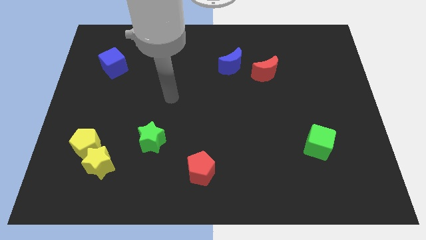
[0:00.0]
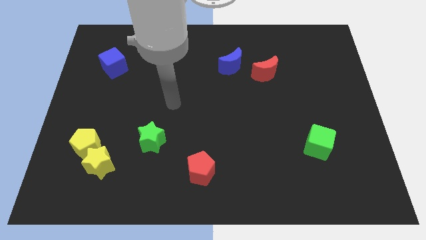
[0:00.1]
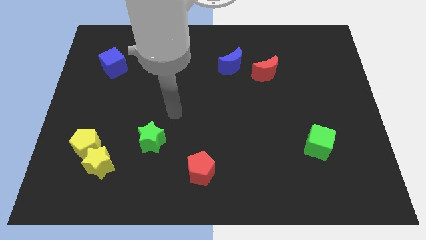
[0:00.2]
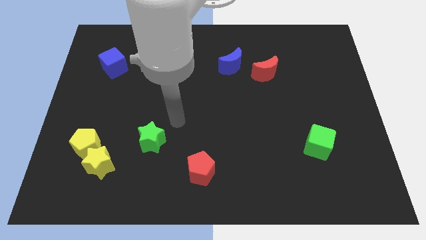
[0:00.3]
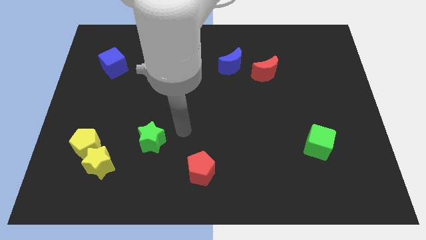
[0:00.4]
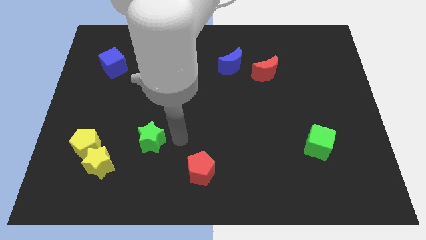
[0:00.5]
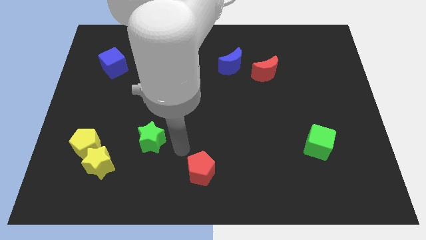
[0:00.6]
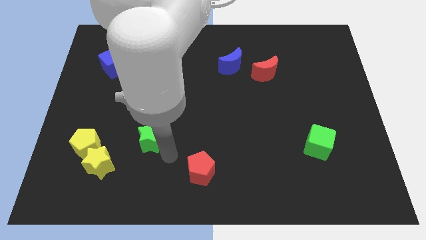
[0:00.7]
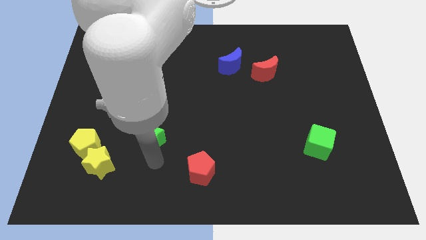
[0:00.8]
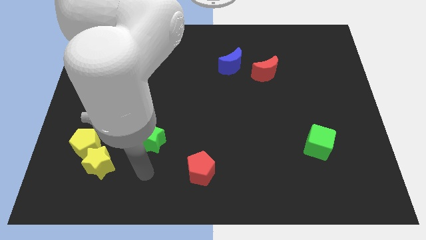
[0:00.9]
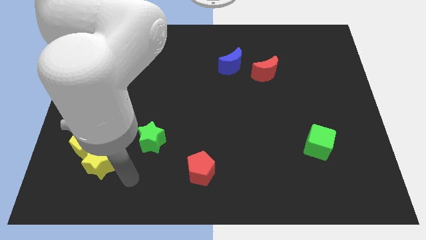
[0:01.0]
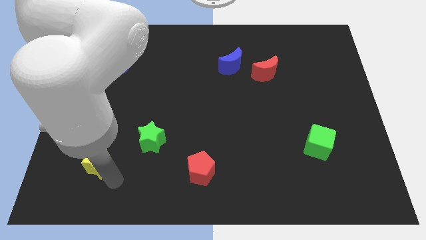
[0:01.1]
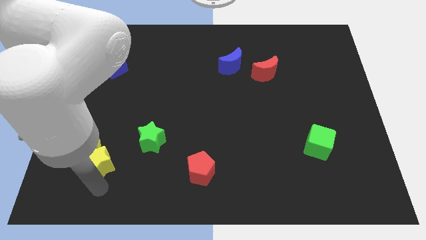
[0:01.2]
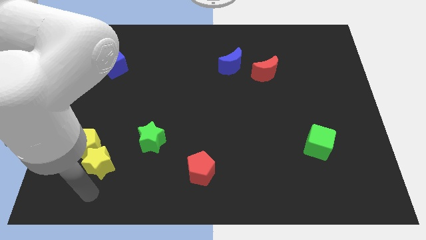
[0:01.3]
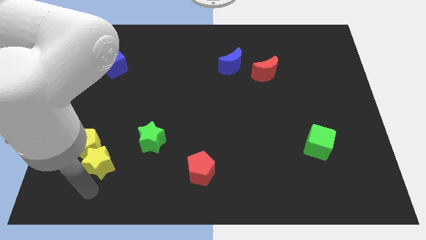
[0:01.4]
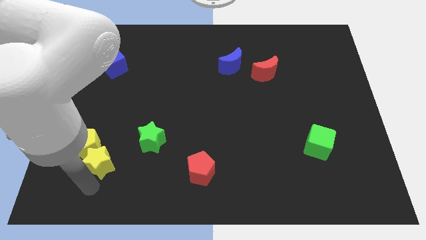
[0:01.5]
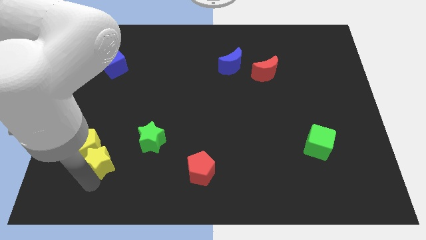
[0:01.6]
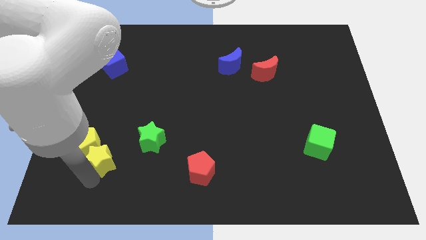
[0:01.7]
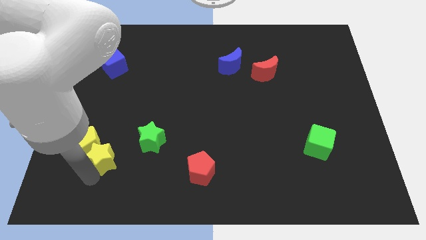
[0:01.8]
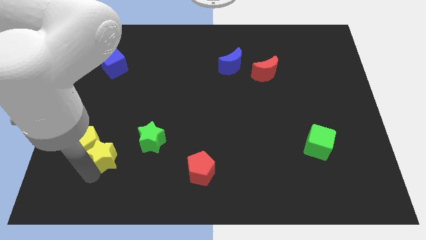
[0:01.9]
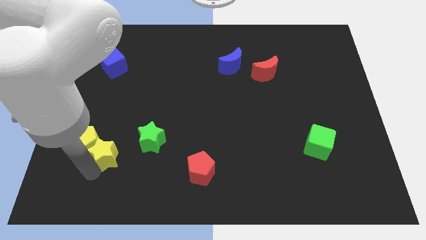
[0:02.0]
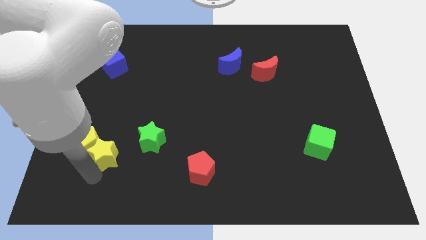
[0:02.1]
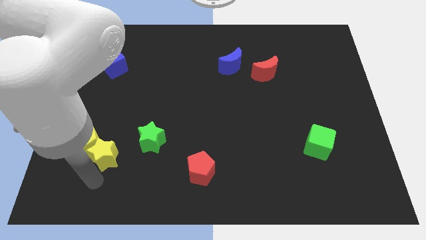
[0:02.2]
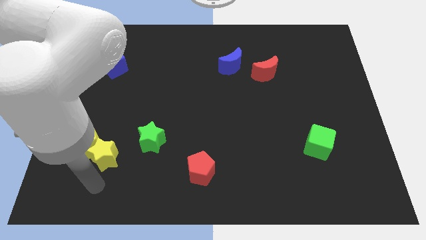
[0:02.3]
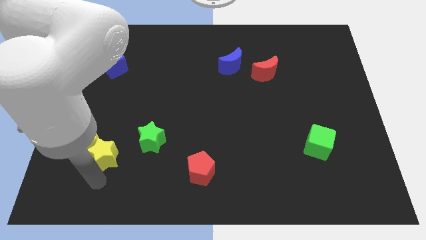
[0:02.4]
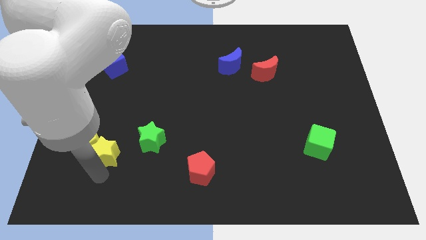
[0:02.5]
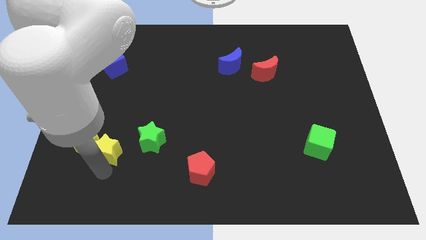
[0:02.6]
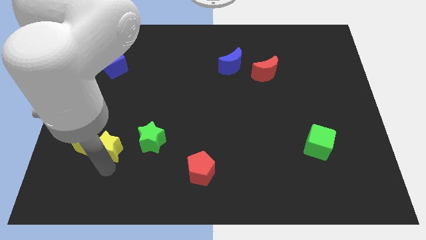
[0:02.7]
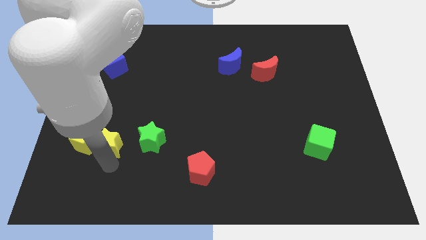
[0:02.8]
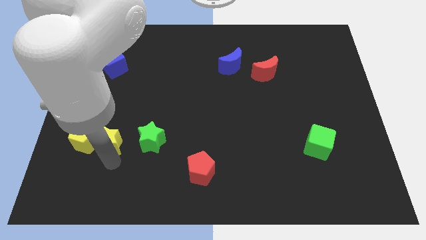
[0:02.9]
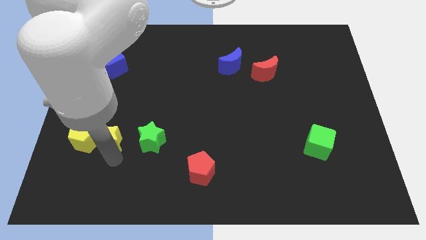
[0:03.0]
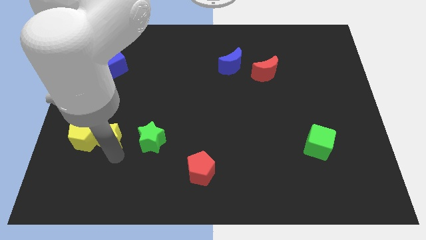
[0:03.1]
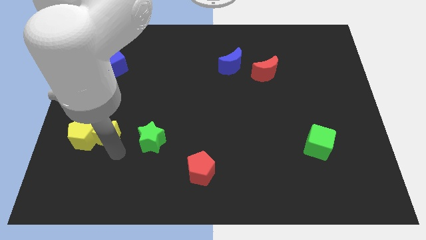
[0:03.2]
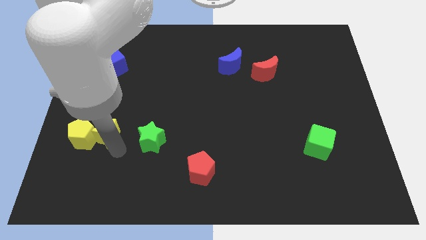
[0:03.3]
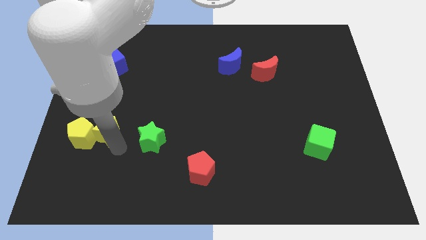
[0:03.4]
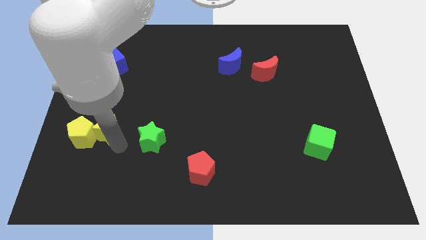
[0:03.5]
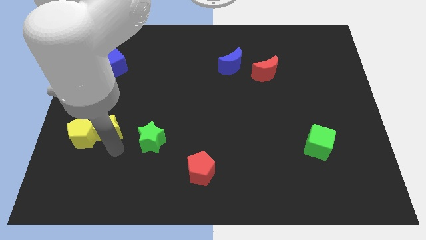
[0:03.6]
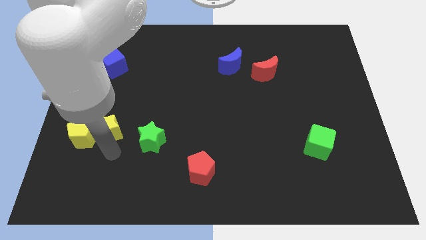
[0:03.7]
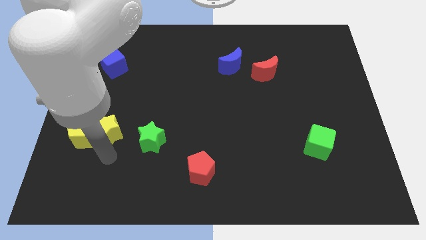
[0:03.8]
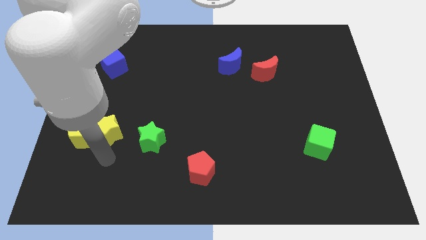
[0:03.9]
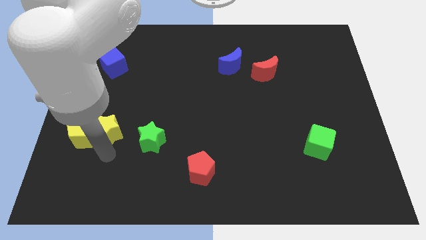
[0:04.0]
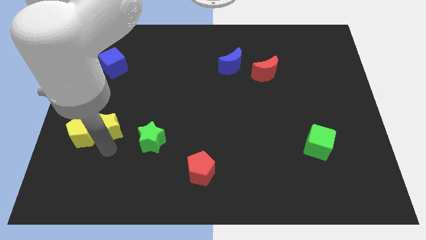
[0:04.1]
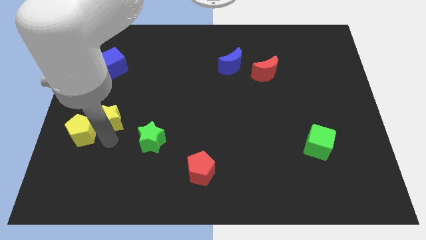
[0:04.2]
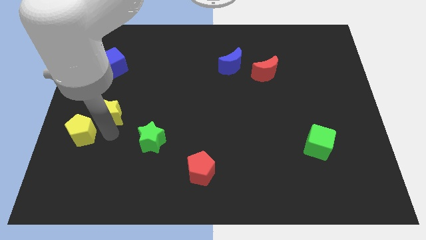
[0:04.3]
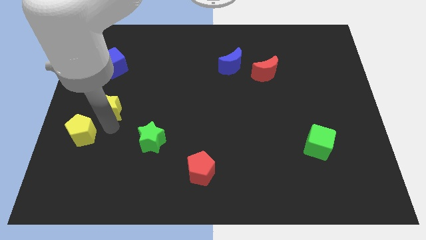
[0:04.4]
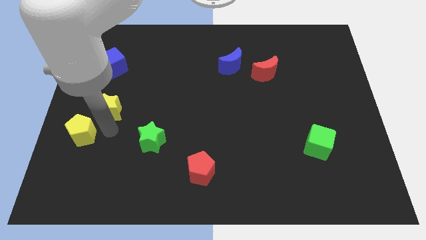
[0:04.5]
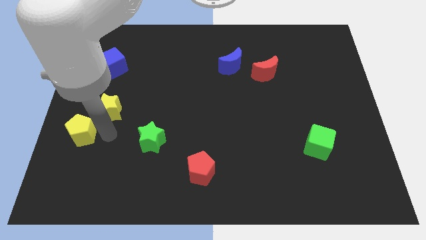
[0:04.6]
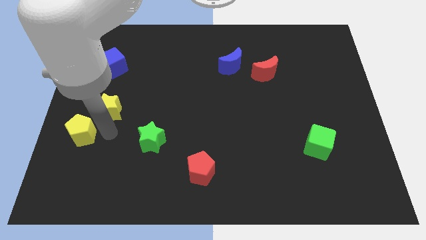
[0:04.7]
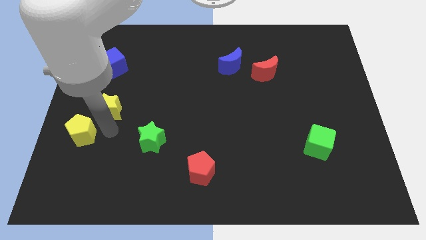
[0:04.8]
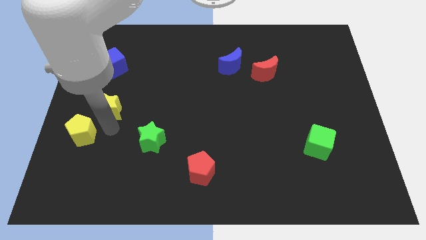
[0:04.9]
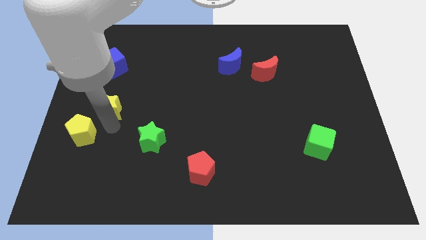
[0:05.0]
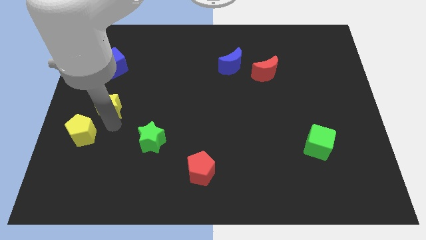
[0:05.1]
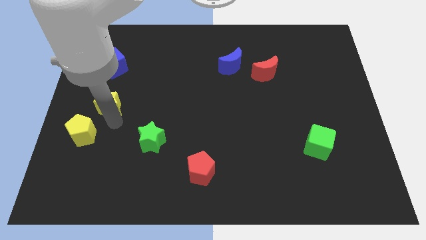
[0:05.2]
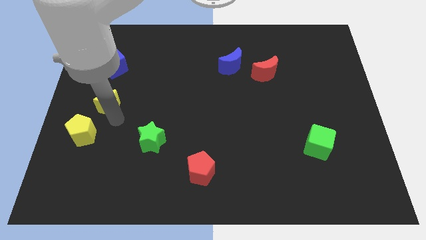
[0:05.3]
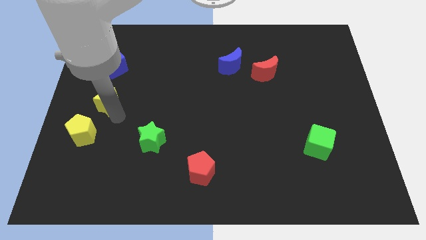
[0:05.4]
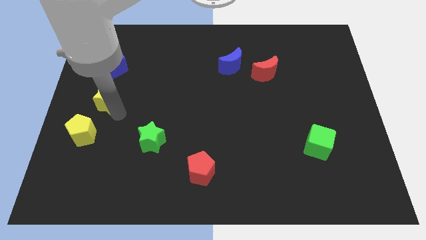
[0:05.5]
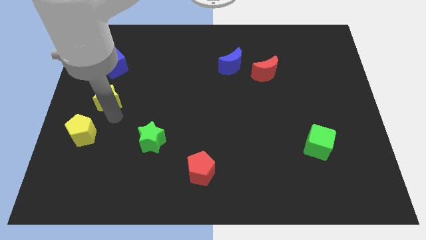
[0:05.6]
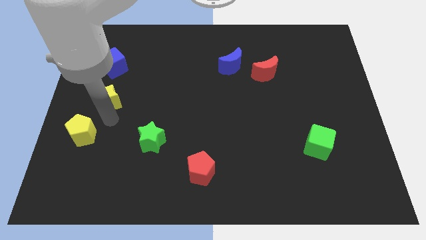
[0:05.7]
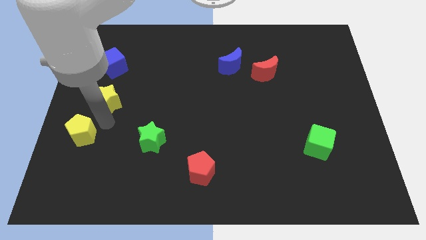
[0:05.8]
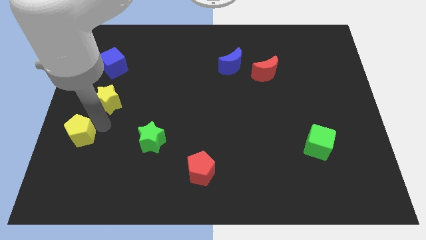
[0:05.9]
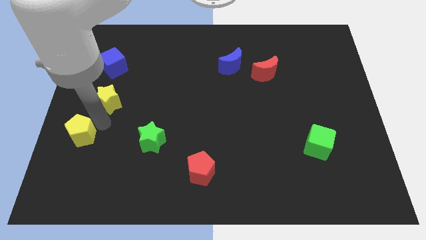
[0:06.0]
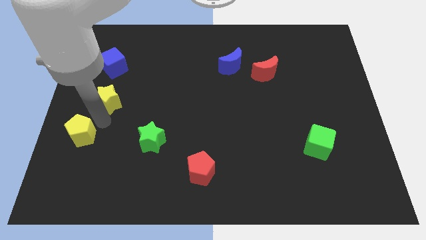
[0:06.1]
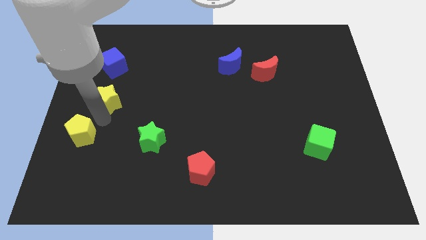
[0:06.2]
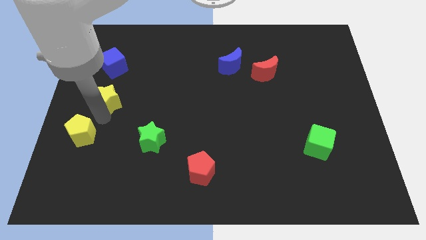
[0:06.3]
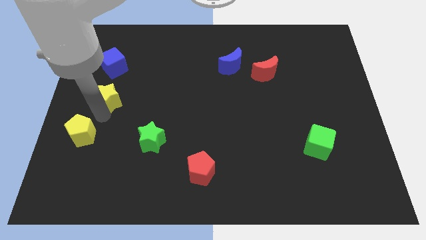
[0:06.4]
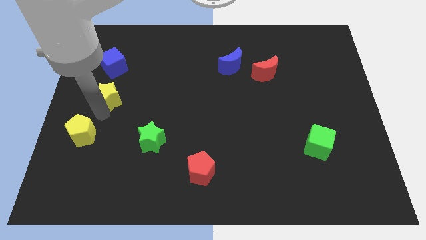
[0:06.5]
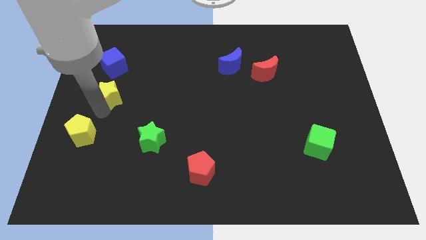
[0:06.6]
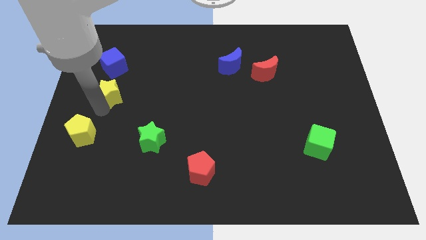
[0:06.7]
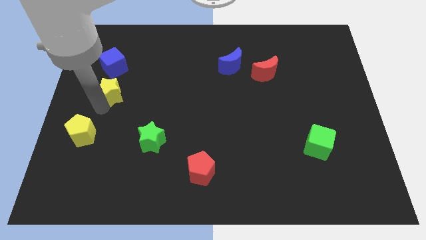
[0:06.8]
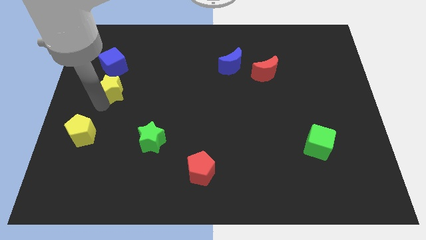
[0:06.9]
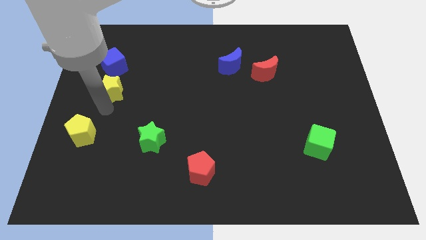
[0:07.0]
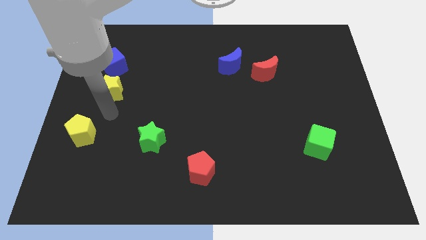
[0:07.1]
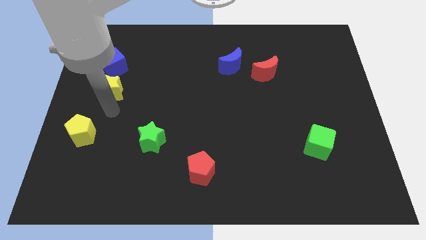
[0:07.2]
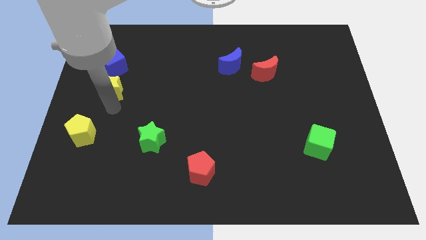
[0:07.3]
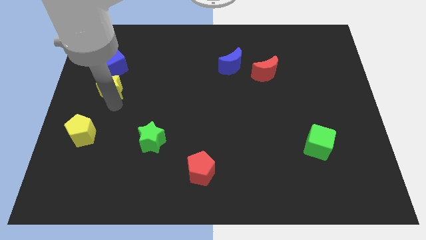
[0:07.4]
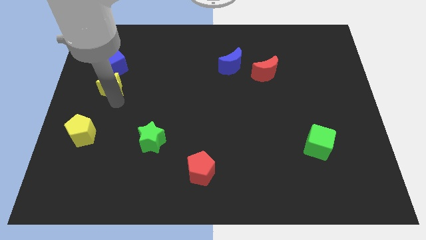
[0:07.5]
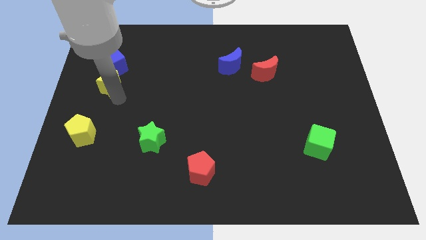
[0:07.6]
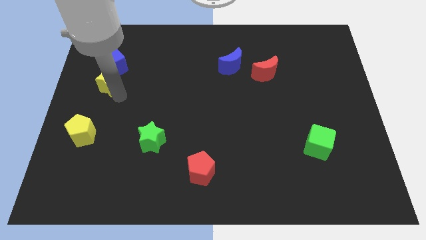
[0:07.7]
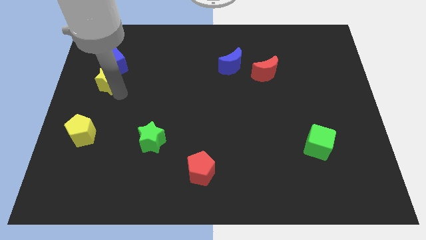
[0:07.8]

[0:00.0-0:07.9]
move the yellow star close to the blue cube
